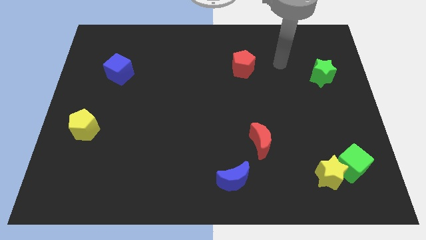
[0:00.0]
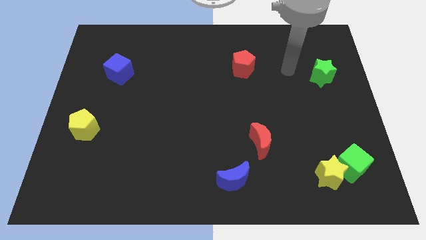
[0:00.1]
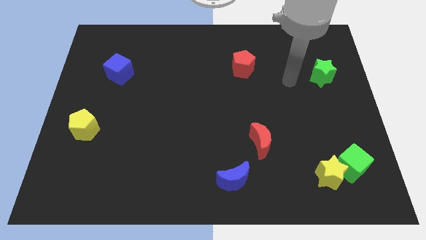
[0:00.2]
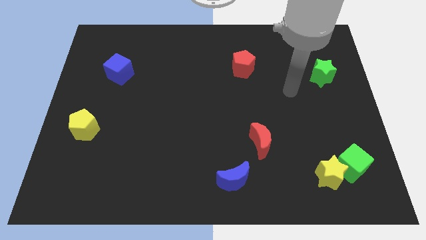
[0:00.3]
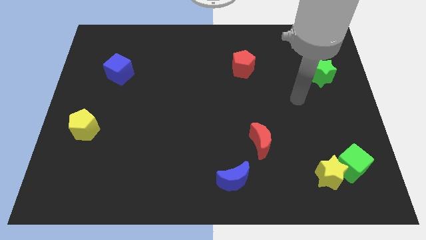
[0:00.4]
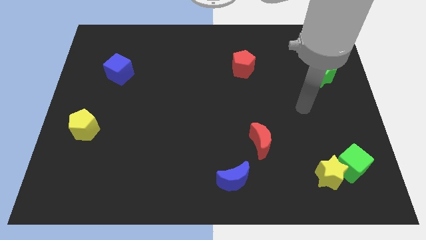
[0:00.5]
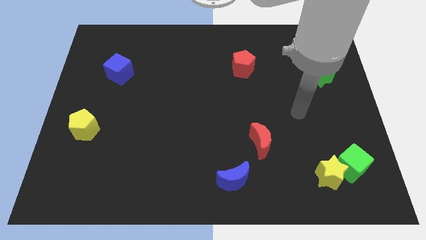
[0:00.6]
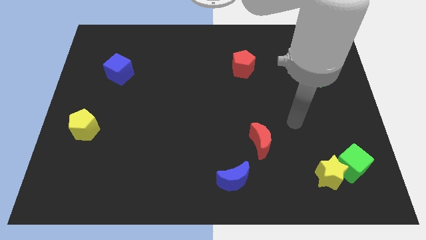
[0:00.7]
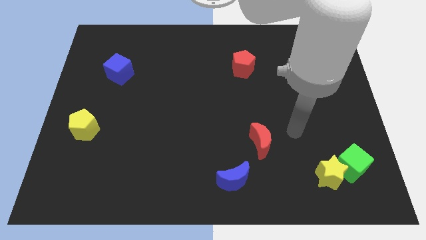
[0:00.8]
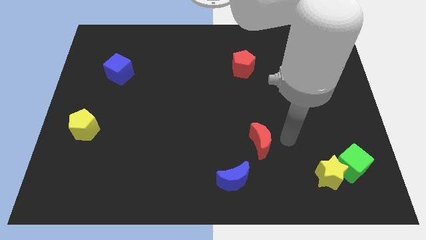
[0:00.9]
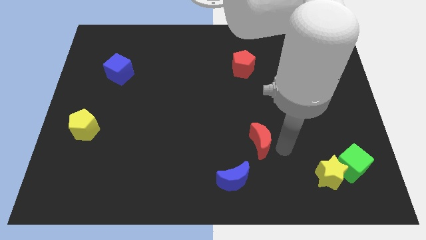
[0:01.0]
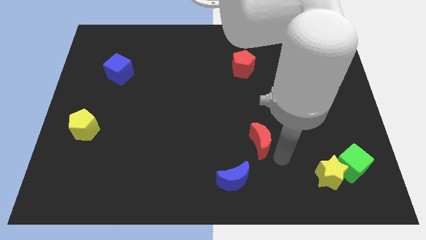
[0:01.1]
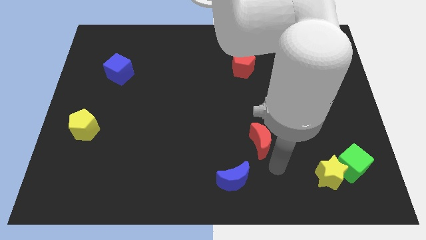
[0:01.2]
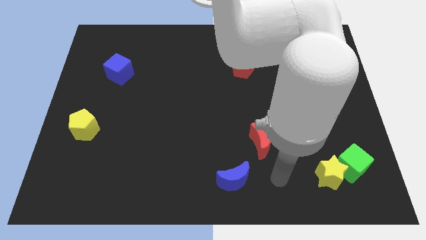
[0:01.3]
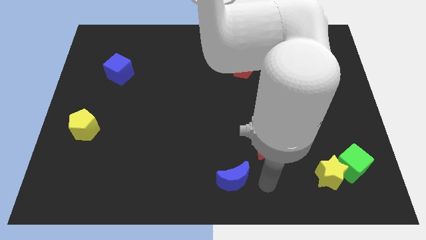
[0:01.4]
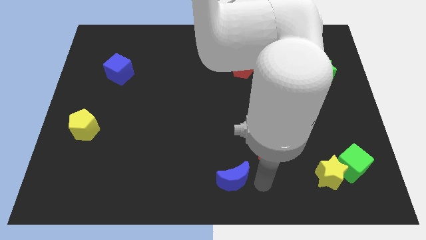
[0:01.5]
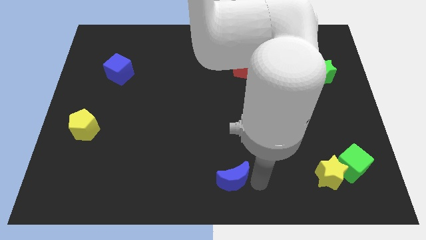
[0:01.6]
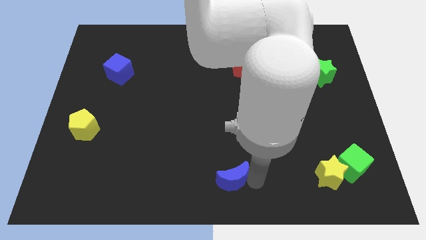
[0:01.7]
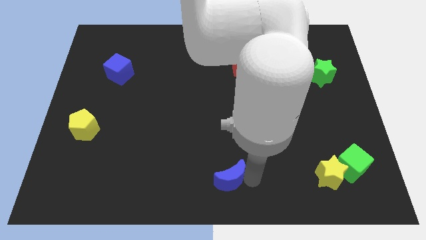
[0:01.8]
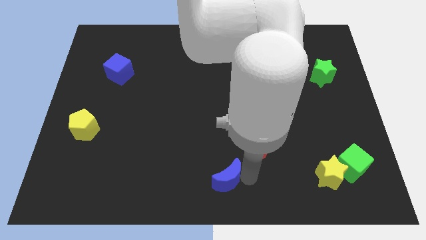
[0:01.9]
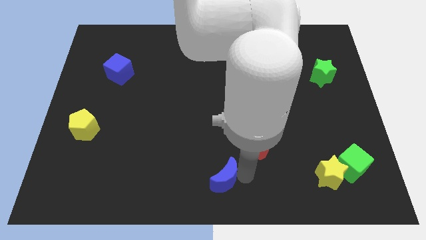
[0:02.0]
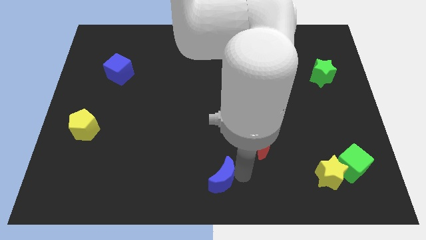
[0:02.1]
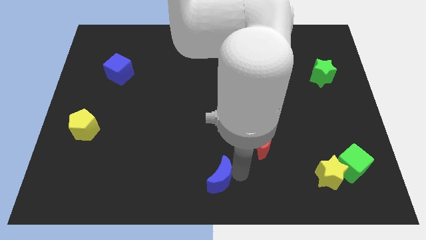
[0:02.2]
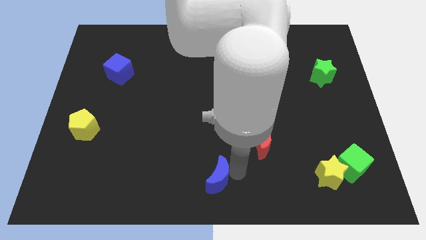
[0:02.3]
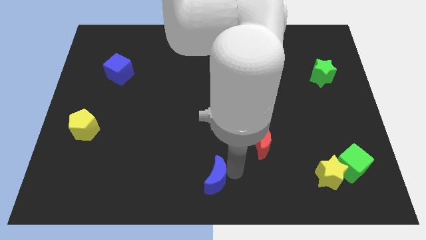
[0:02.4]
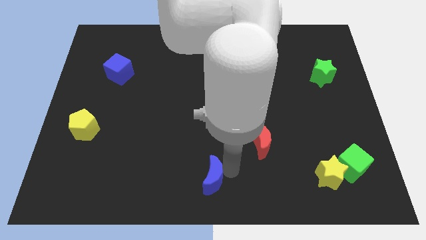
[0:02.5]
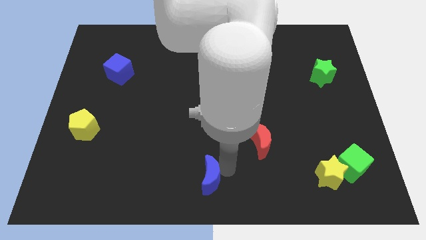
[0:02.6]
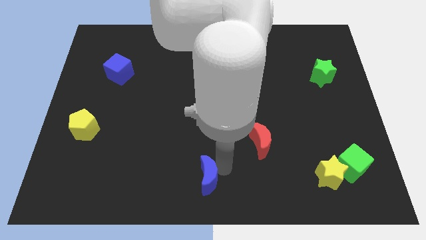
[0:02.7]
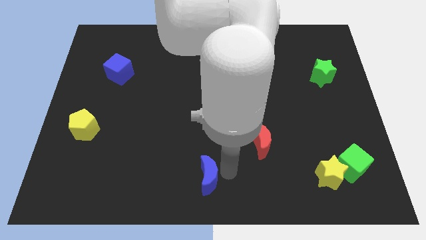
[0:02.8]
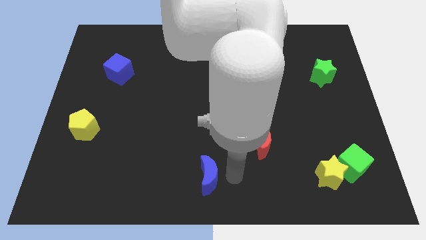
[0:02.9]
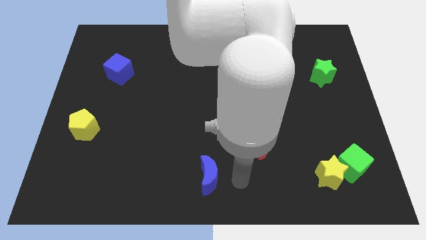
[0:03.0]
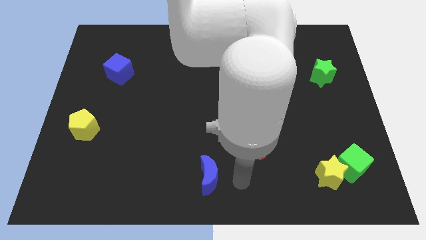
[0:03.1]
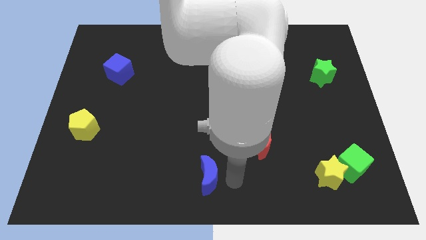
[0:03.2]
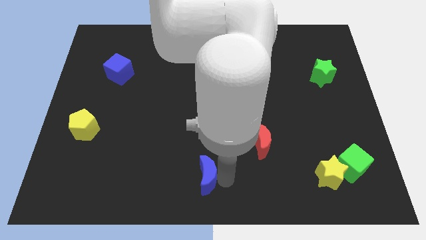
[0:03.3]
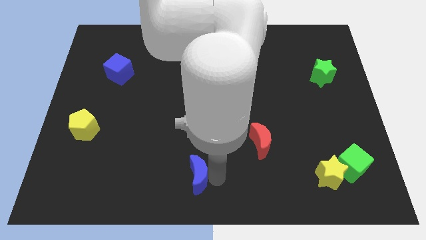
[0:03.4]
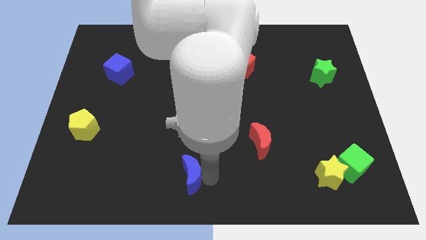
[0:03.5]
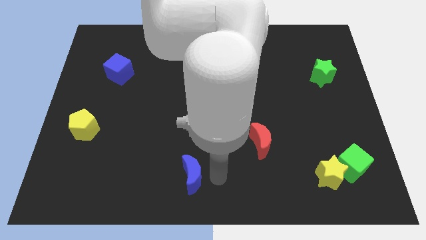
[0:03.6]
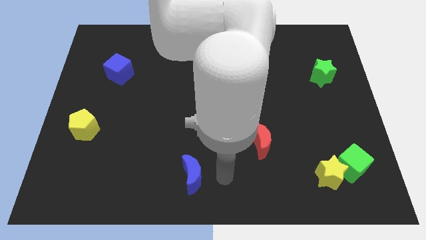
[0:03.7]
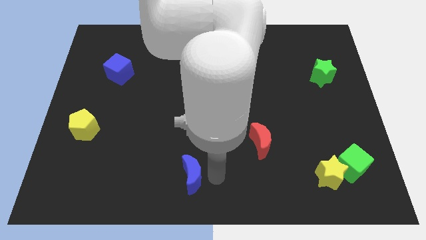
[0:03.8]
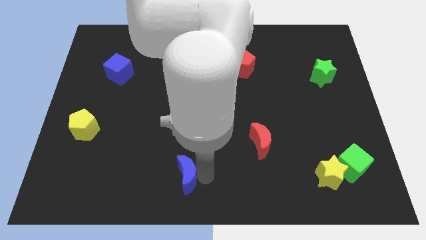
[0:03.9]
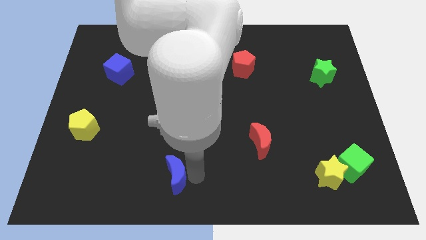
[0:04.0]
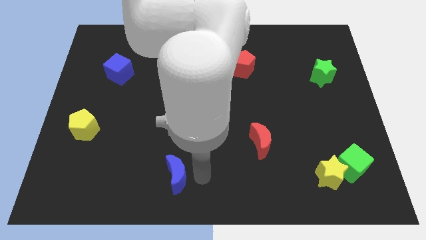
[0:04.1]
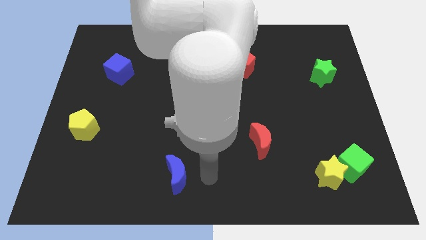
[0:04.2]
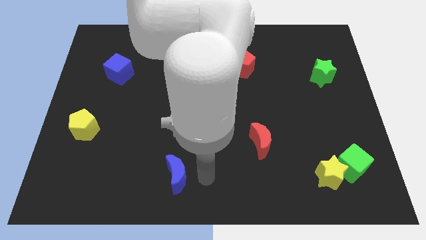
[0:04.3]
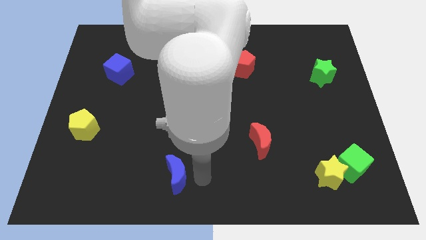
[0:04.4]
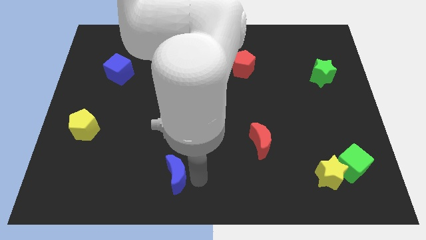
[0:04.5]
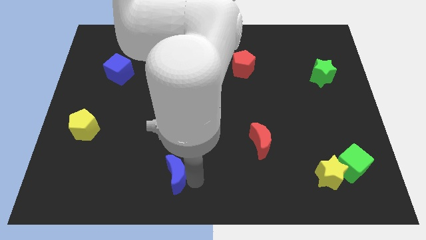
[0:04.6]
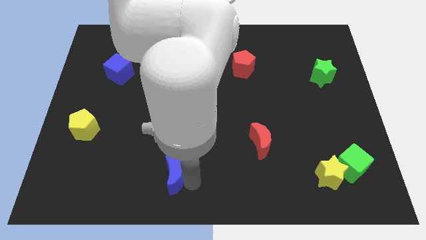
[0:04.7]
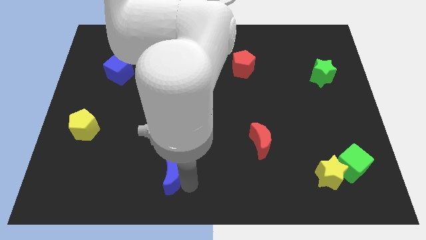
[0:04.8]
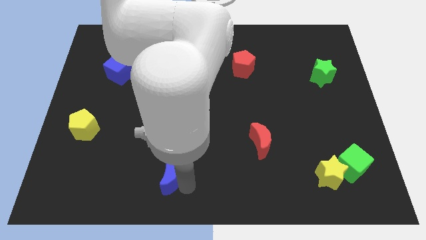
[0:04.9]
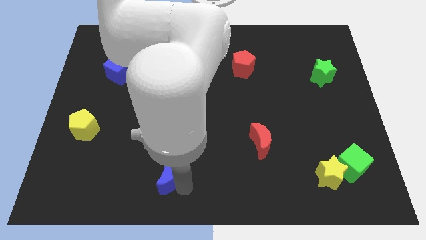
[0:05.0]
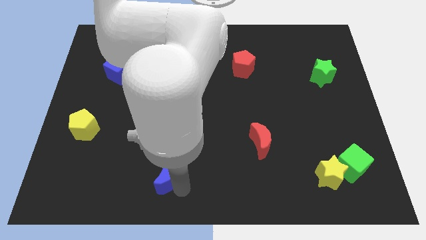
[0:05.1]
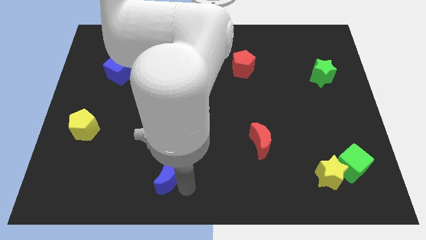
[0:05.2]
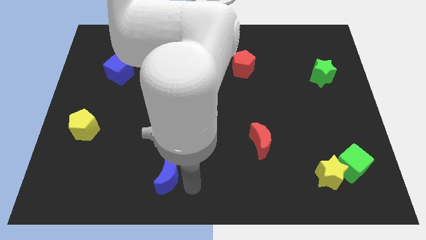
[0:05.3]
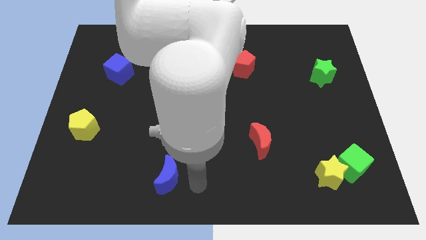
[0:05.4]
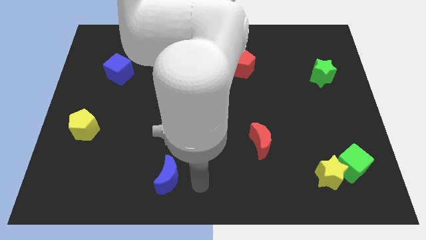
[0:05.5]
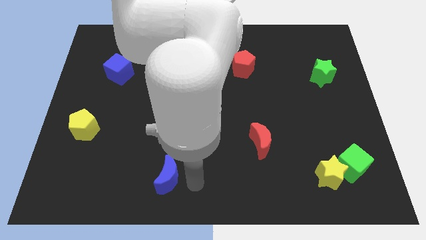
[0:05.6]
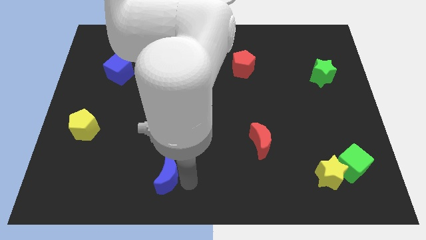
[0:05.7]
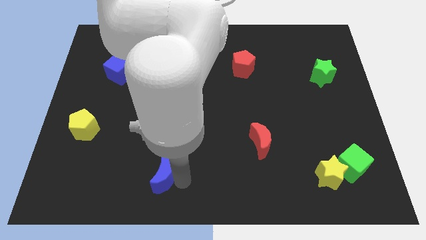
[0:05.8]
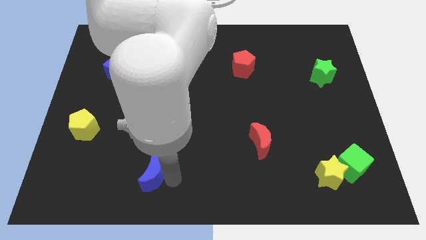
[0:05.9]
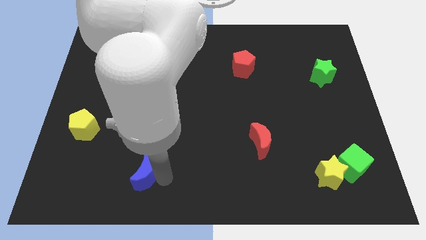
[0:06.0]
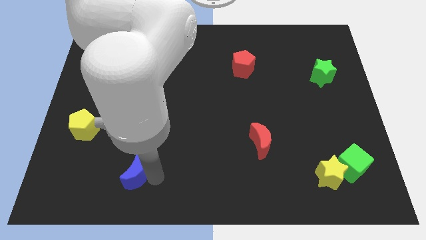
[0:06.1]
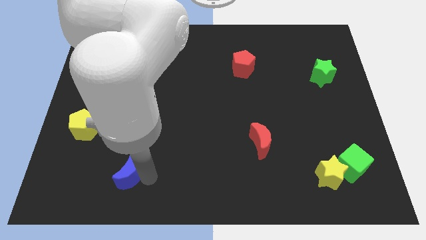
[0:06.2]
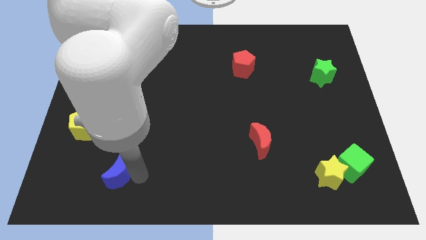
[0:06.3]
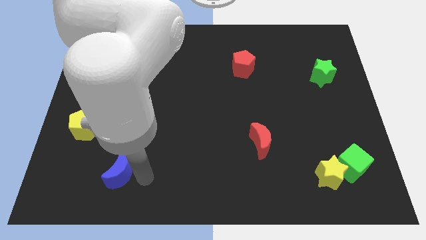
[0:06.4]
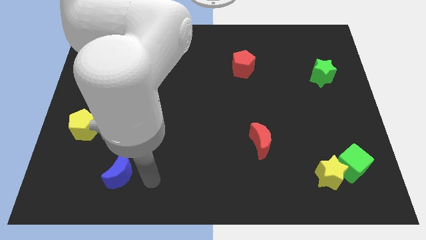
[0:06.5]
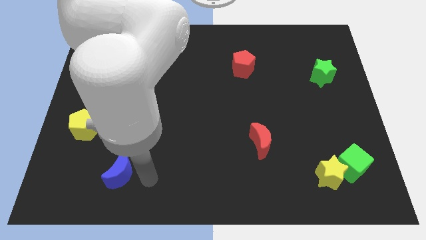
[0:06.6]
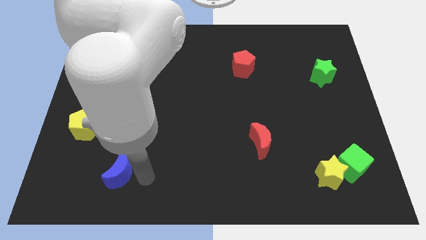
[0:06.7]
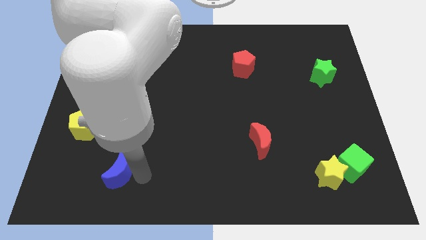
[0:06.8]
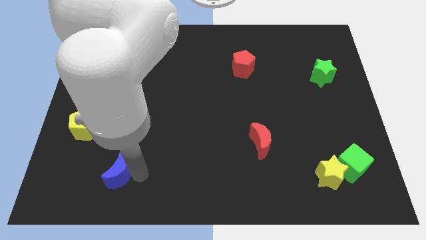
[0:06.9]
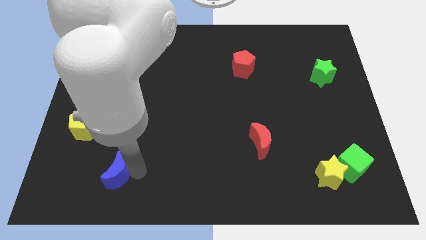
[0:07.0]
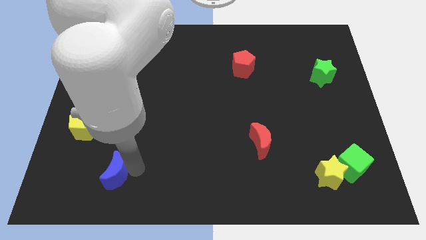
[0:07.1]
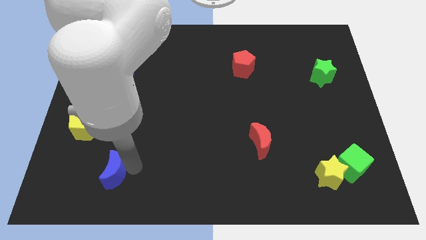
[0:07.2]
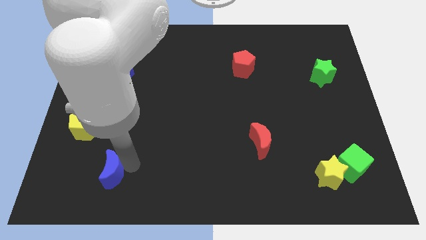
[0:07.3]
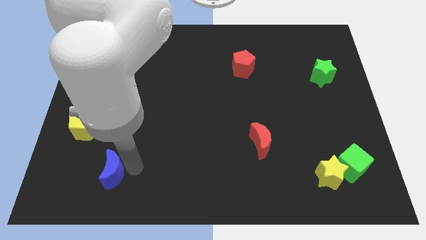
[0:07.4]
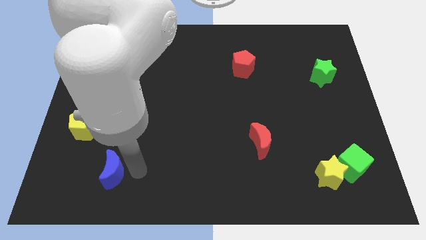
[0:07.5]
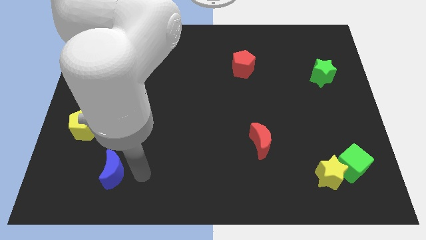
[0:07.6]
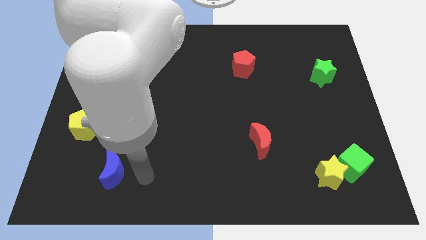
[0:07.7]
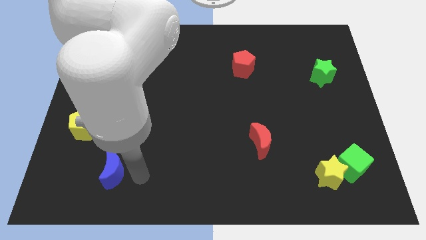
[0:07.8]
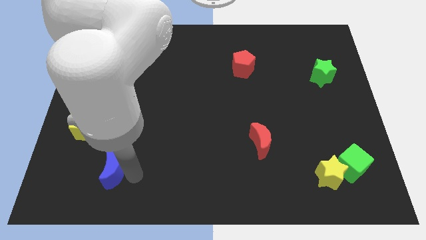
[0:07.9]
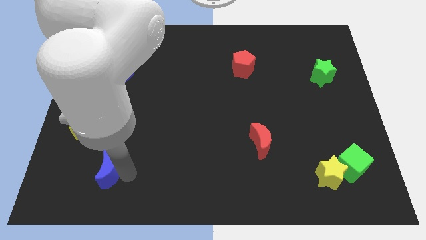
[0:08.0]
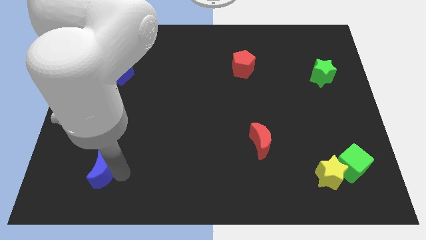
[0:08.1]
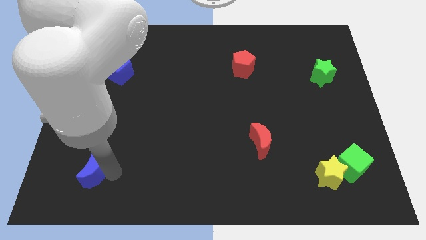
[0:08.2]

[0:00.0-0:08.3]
slide the blue moon below the yellow pentagon
